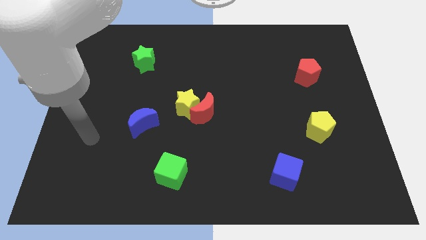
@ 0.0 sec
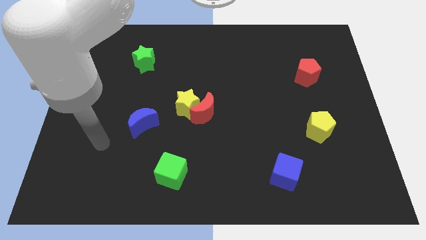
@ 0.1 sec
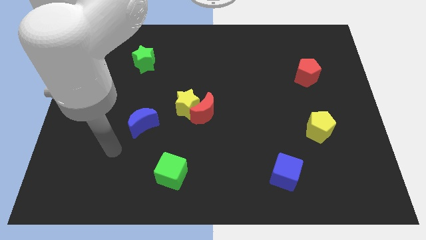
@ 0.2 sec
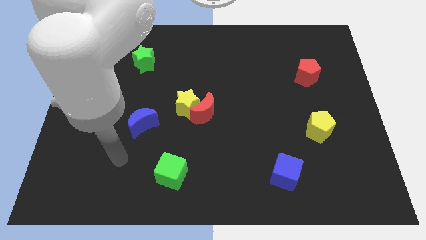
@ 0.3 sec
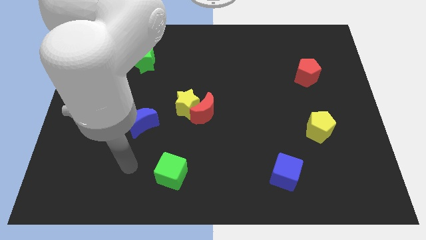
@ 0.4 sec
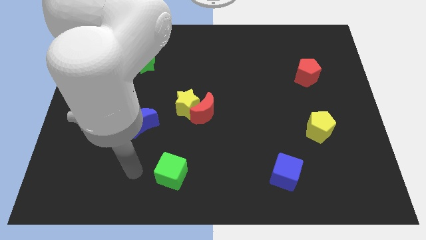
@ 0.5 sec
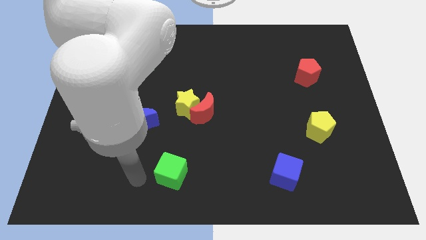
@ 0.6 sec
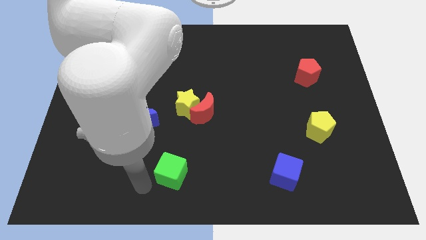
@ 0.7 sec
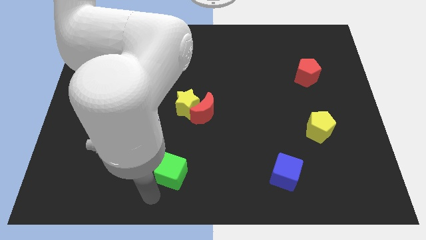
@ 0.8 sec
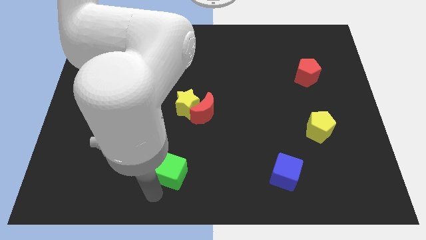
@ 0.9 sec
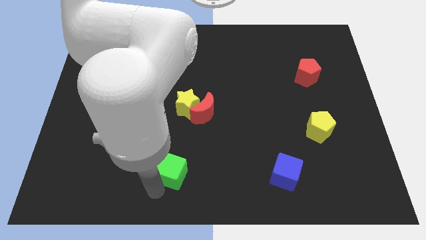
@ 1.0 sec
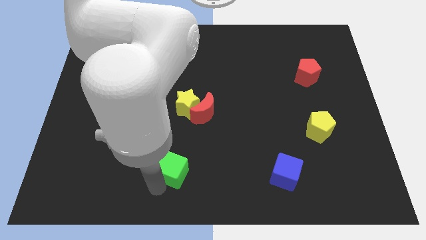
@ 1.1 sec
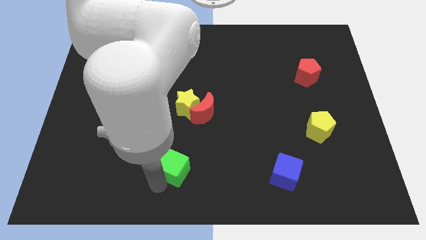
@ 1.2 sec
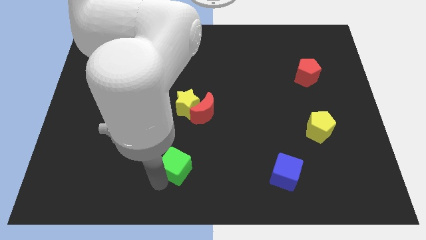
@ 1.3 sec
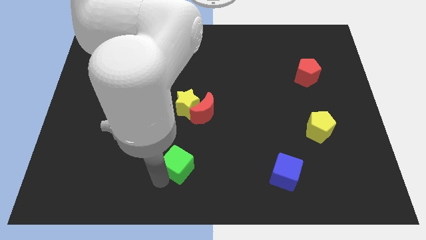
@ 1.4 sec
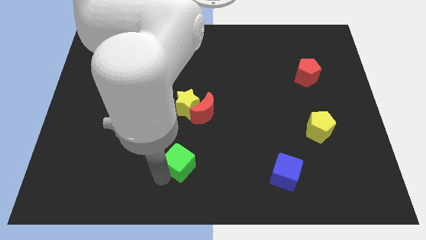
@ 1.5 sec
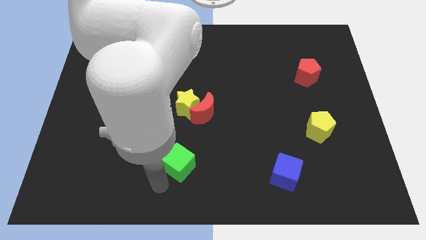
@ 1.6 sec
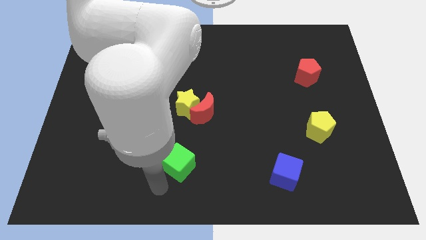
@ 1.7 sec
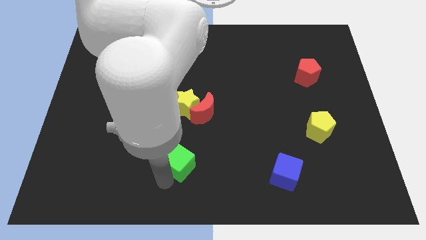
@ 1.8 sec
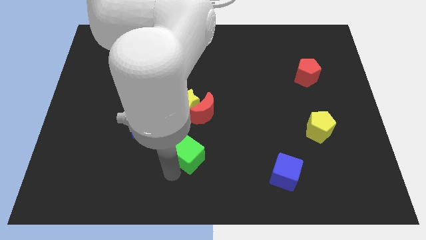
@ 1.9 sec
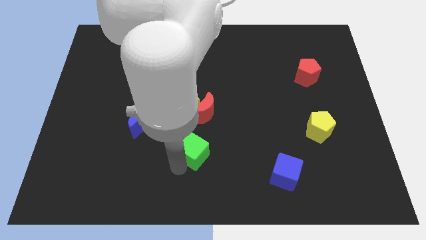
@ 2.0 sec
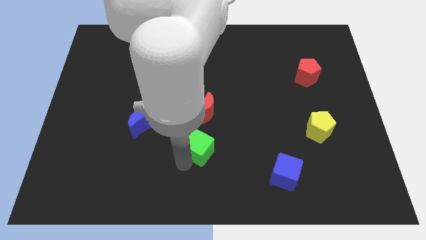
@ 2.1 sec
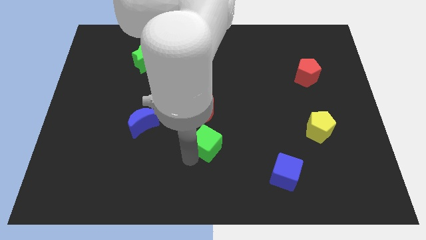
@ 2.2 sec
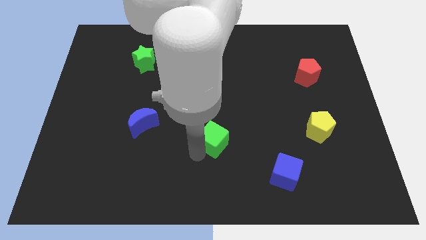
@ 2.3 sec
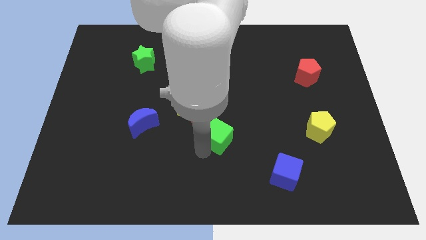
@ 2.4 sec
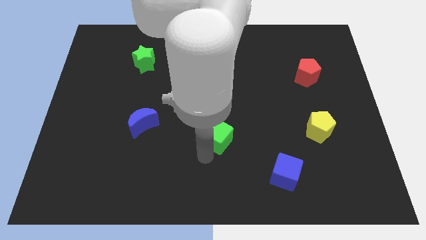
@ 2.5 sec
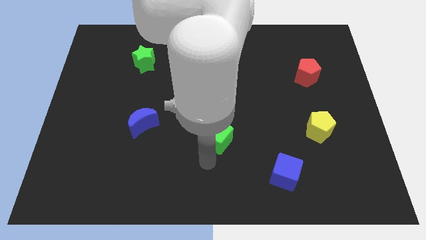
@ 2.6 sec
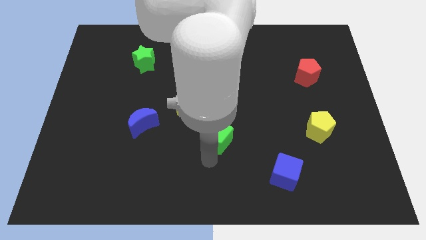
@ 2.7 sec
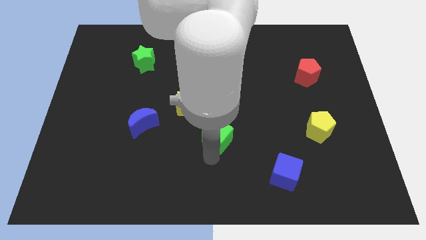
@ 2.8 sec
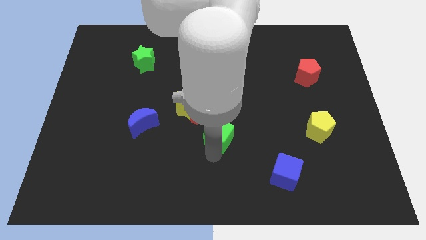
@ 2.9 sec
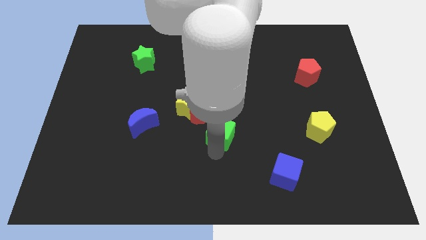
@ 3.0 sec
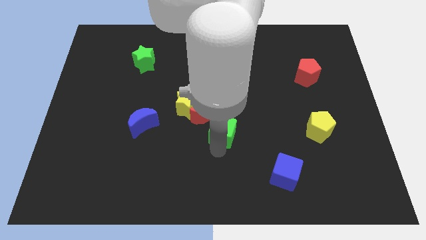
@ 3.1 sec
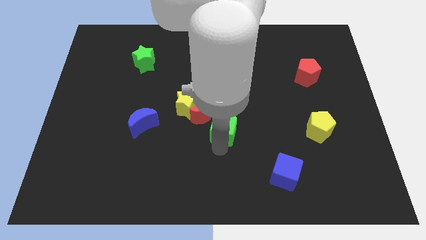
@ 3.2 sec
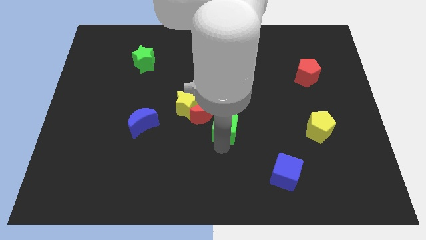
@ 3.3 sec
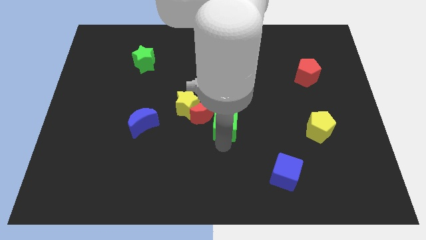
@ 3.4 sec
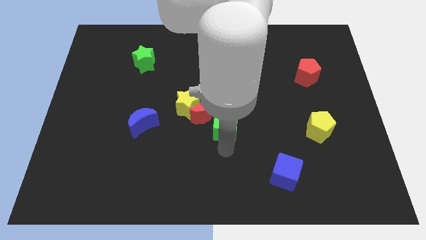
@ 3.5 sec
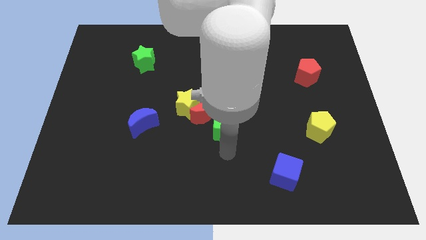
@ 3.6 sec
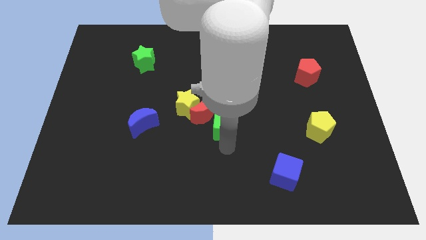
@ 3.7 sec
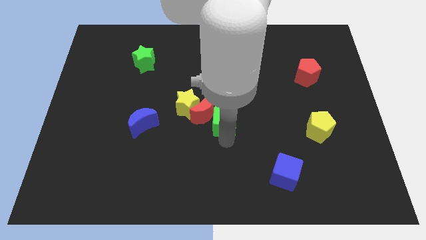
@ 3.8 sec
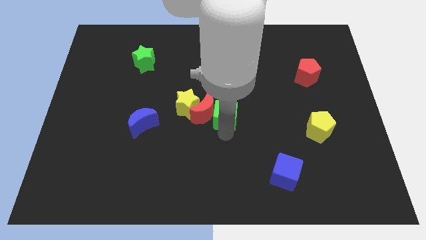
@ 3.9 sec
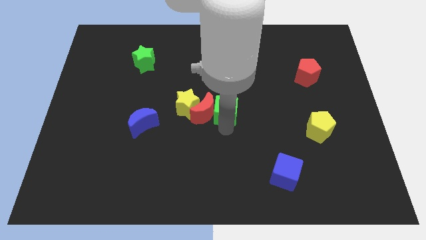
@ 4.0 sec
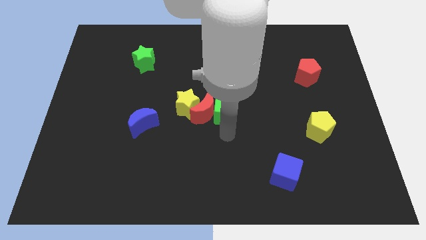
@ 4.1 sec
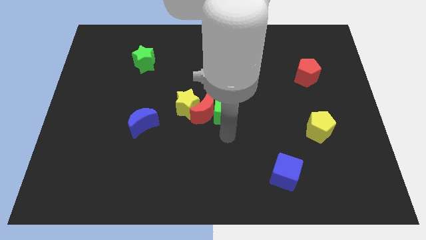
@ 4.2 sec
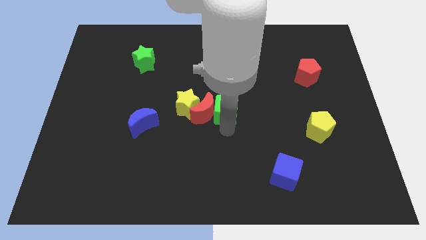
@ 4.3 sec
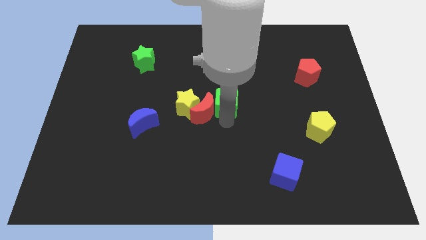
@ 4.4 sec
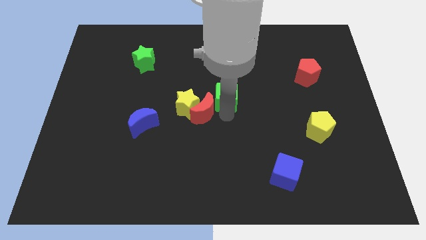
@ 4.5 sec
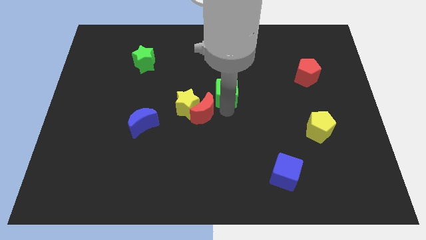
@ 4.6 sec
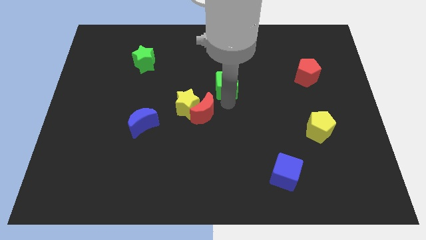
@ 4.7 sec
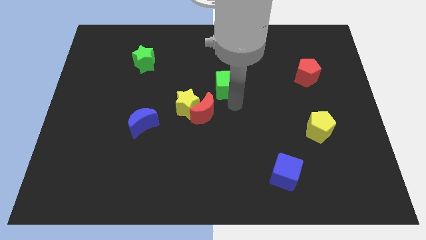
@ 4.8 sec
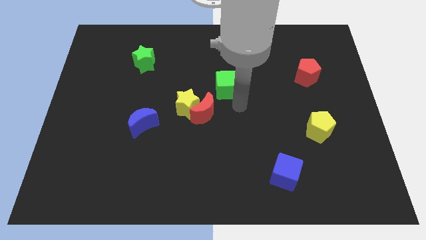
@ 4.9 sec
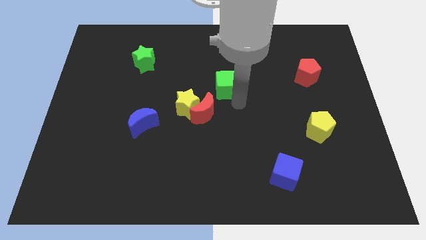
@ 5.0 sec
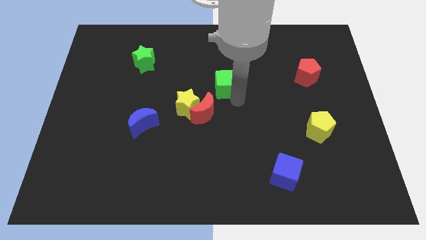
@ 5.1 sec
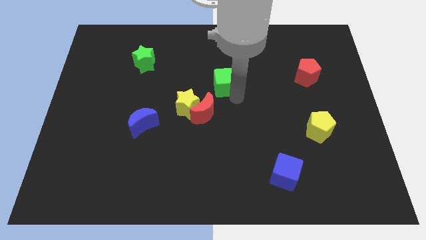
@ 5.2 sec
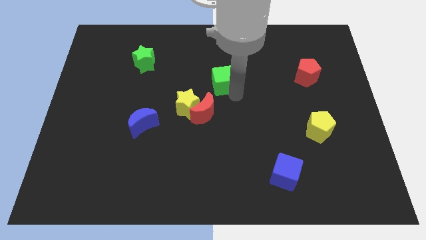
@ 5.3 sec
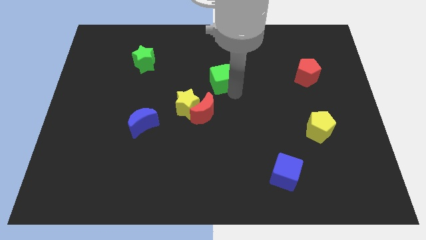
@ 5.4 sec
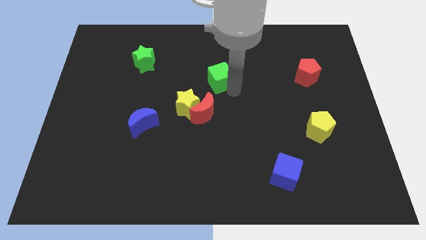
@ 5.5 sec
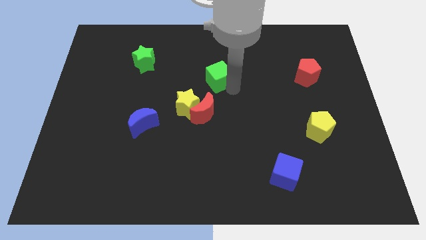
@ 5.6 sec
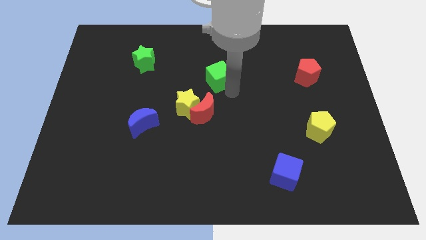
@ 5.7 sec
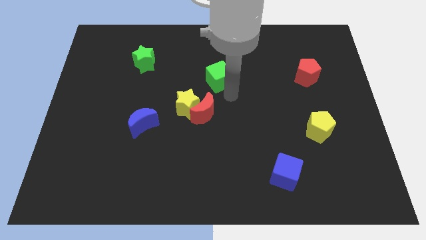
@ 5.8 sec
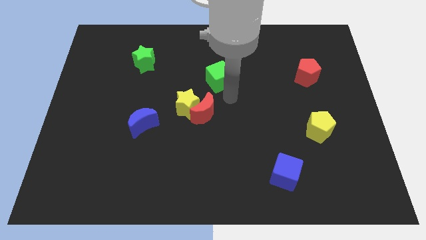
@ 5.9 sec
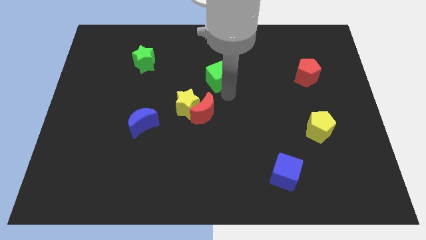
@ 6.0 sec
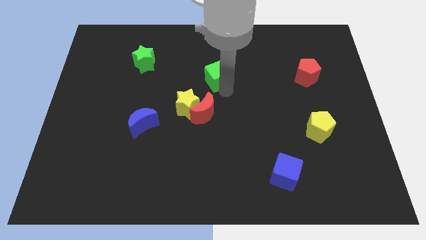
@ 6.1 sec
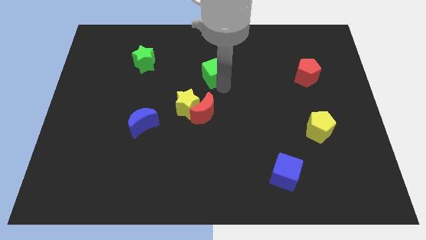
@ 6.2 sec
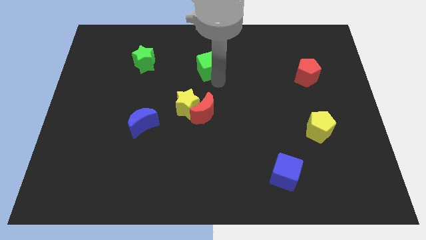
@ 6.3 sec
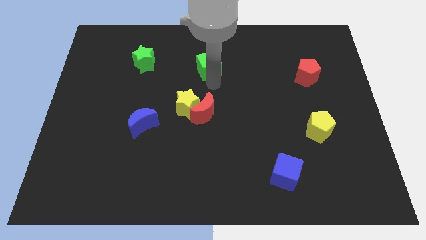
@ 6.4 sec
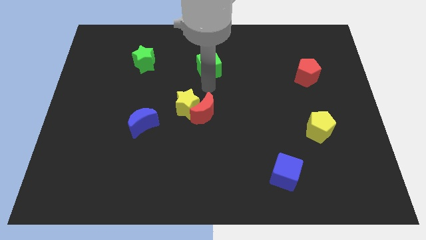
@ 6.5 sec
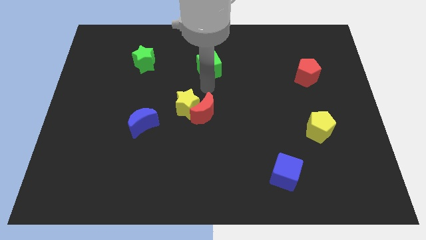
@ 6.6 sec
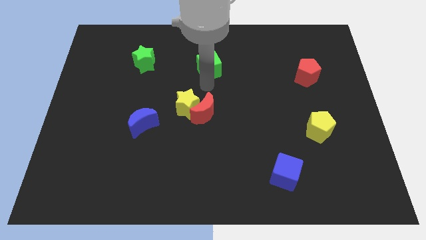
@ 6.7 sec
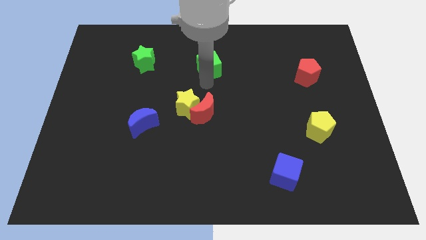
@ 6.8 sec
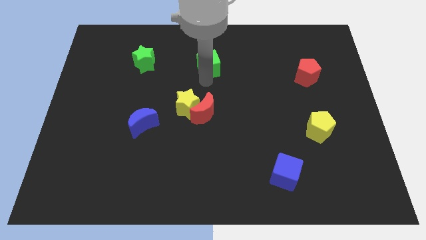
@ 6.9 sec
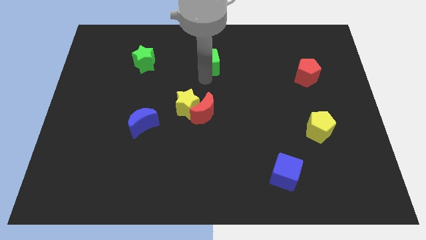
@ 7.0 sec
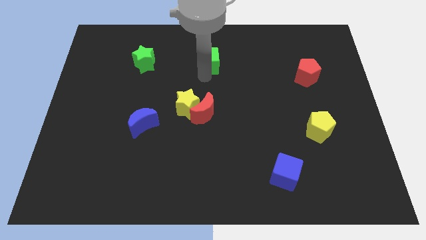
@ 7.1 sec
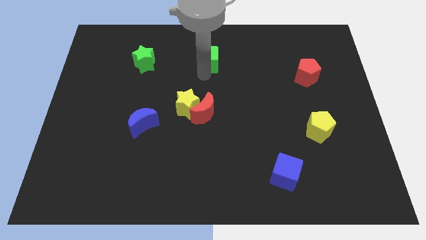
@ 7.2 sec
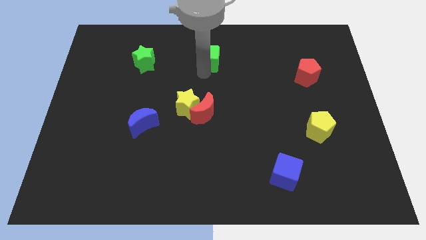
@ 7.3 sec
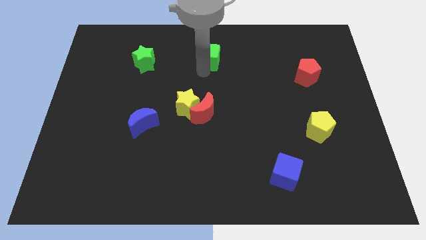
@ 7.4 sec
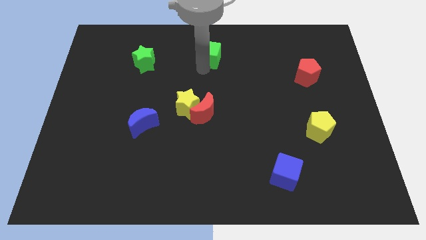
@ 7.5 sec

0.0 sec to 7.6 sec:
push the green cube to the towards your base
